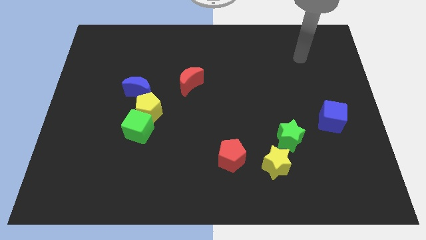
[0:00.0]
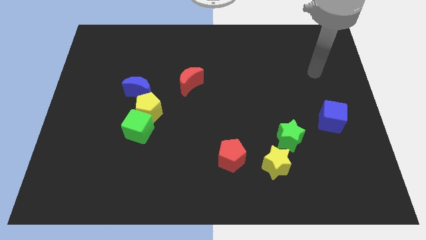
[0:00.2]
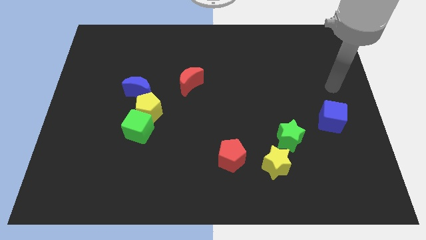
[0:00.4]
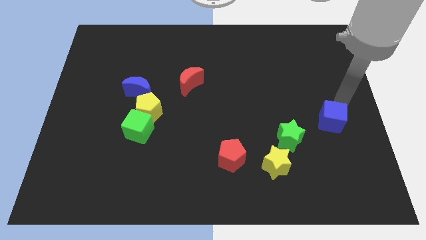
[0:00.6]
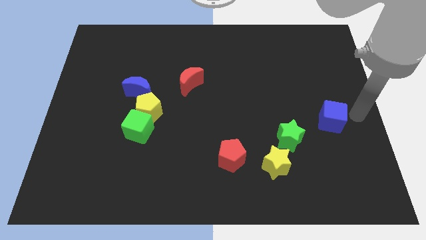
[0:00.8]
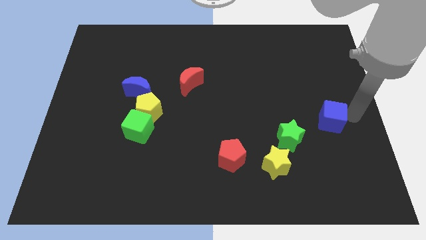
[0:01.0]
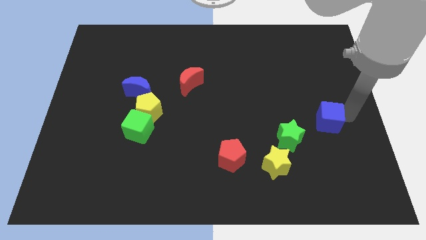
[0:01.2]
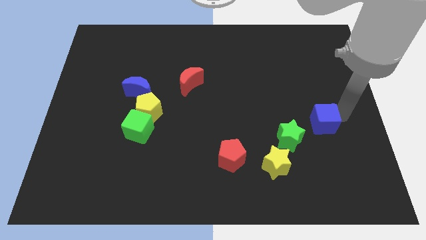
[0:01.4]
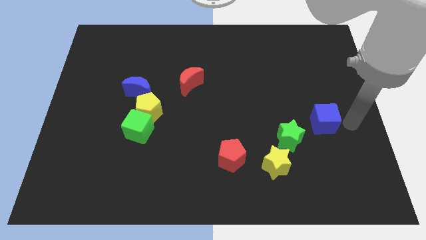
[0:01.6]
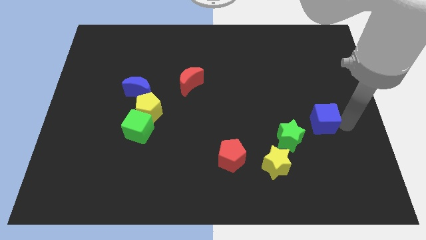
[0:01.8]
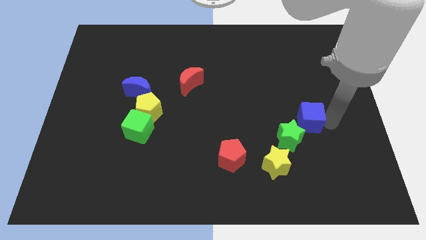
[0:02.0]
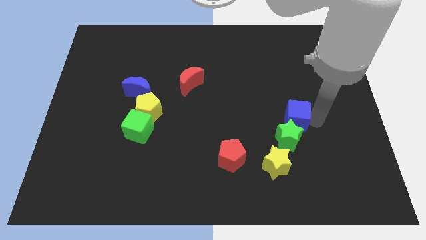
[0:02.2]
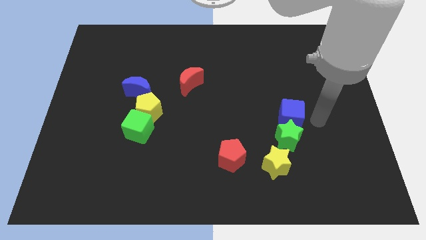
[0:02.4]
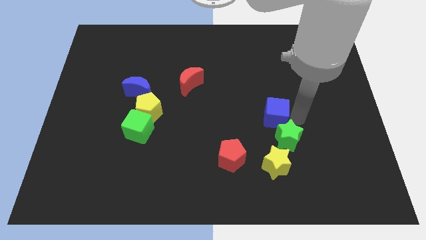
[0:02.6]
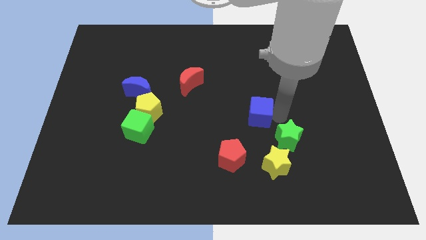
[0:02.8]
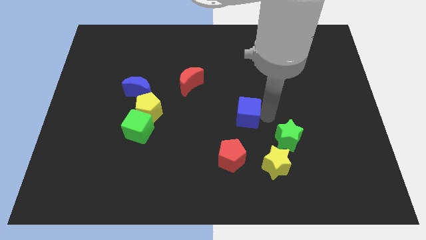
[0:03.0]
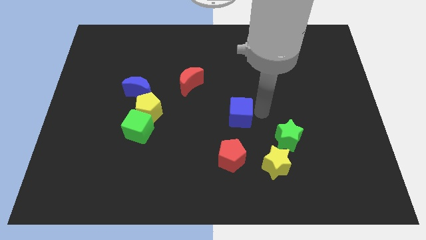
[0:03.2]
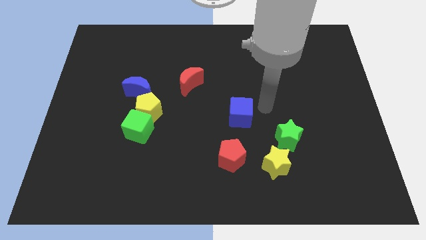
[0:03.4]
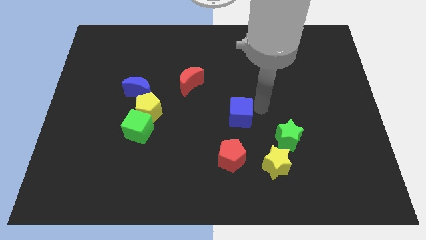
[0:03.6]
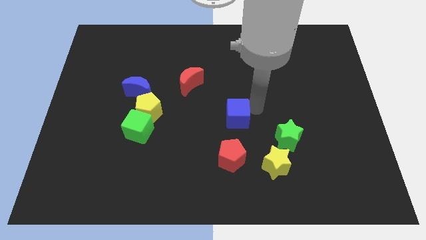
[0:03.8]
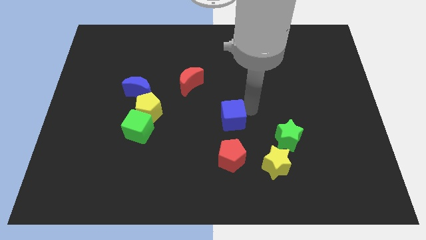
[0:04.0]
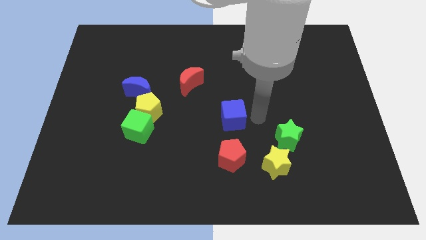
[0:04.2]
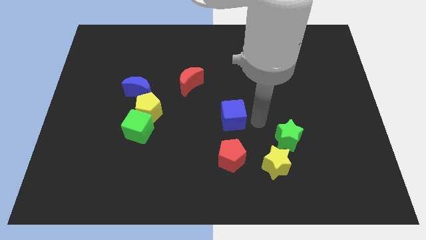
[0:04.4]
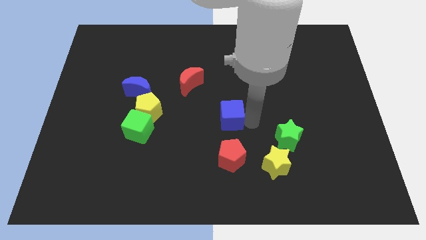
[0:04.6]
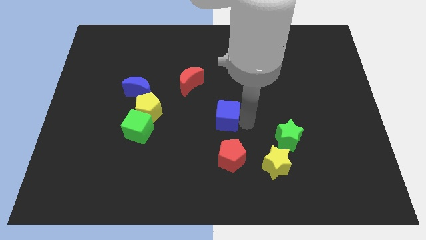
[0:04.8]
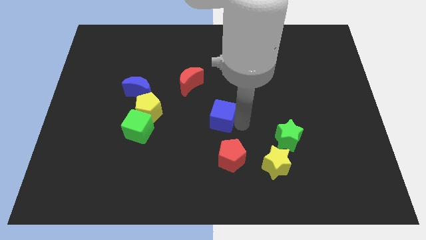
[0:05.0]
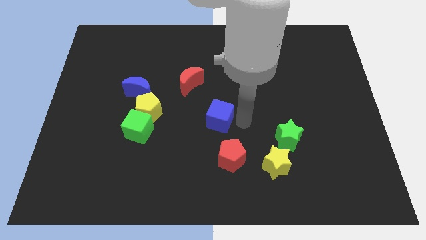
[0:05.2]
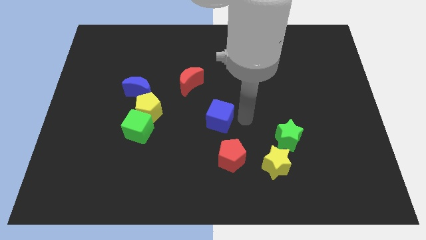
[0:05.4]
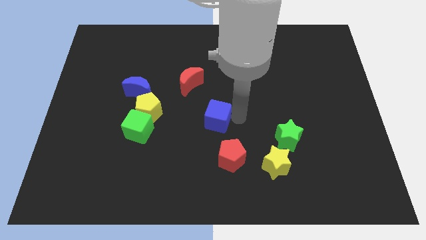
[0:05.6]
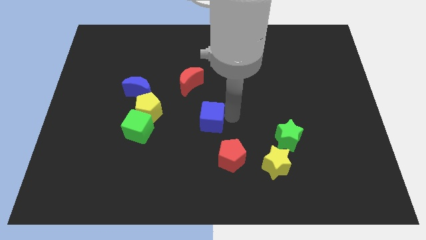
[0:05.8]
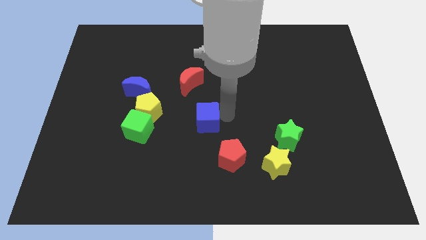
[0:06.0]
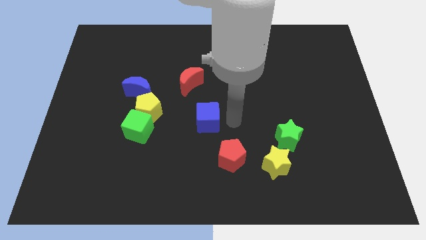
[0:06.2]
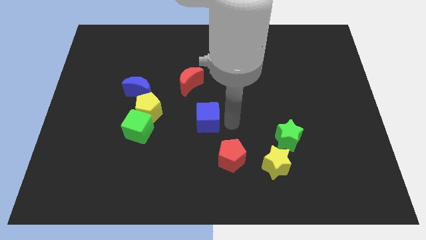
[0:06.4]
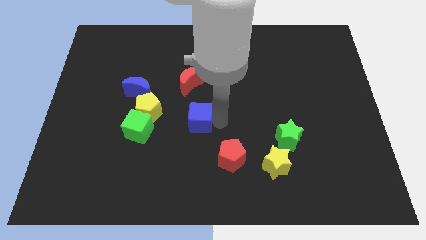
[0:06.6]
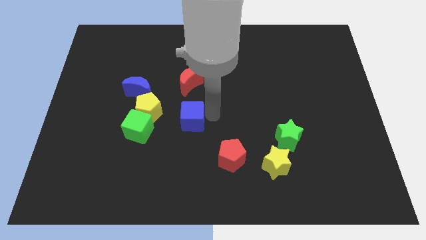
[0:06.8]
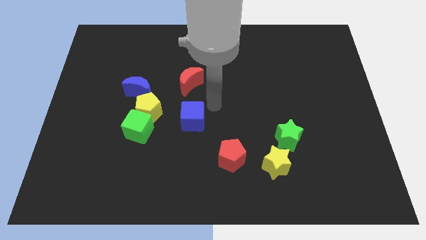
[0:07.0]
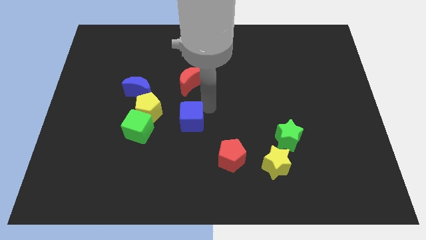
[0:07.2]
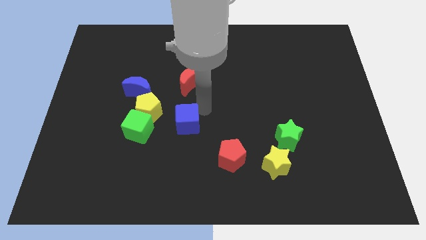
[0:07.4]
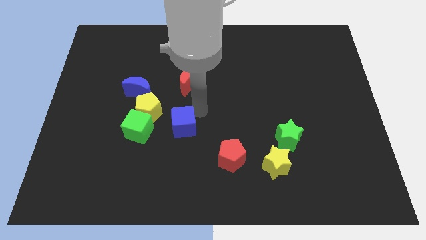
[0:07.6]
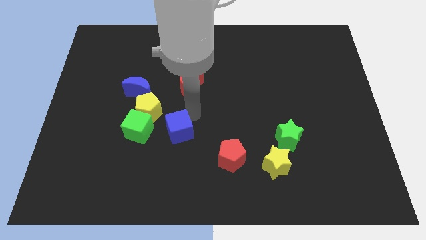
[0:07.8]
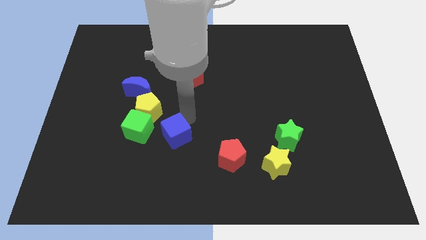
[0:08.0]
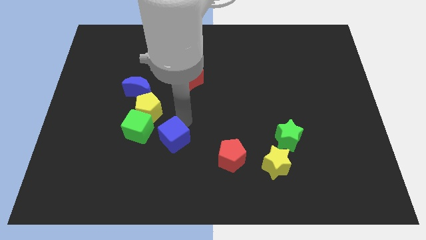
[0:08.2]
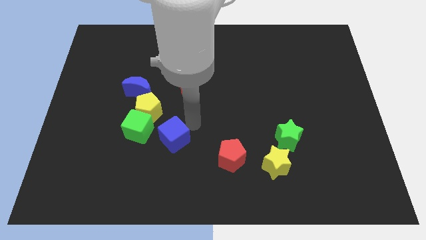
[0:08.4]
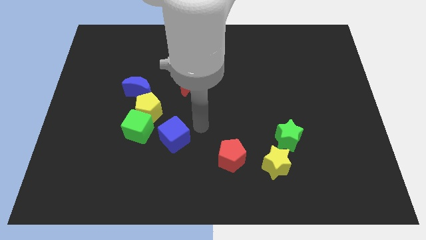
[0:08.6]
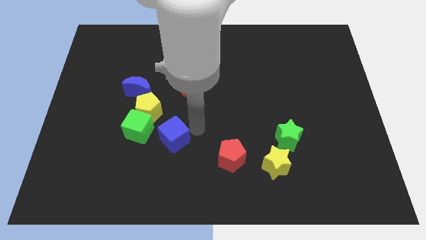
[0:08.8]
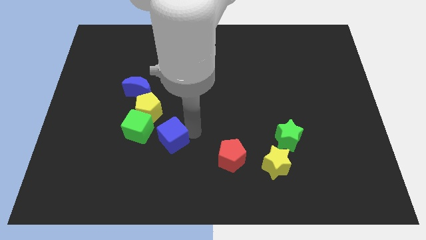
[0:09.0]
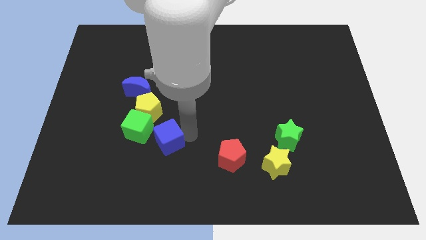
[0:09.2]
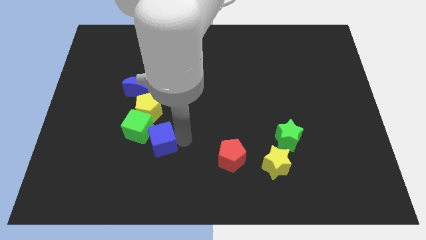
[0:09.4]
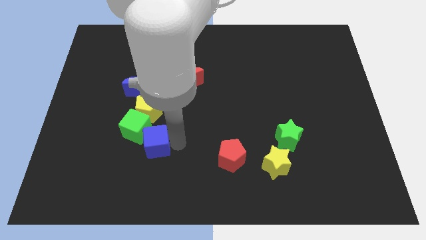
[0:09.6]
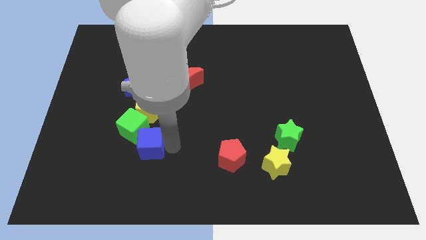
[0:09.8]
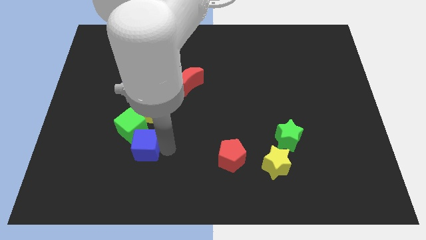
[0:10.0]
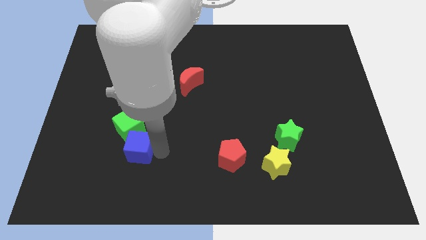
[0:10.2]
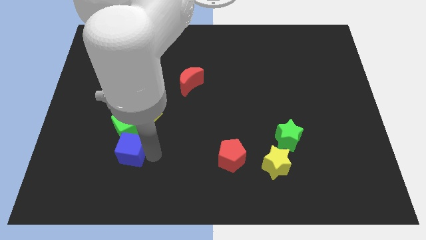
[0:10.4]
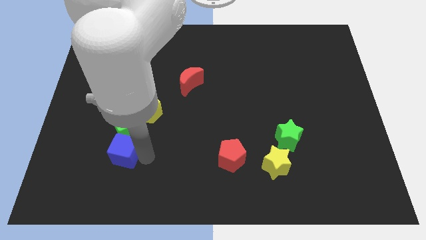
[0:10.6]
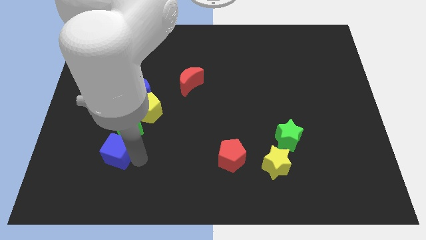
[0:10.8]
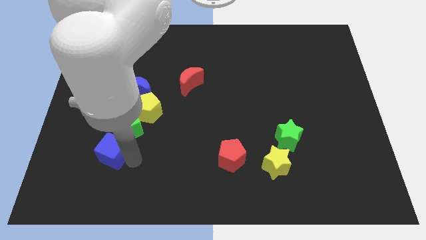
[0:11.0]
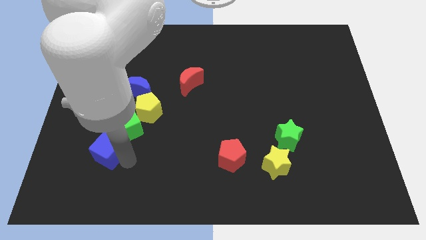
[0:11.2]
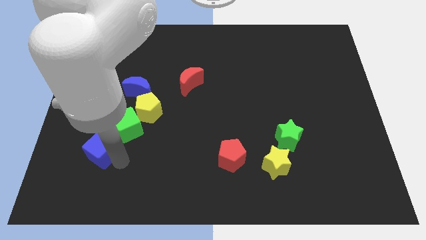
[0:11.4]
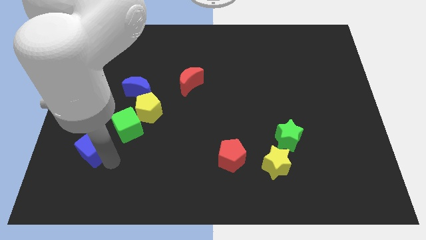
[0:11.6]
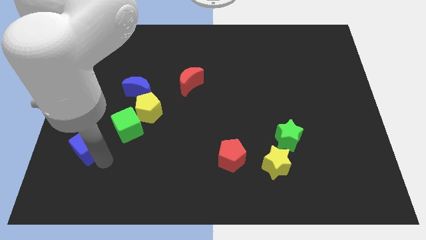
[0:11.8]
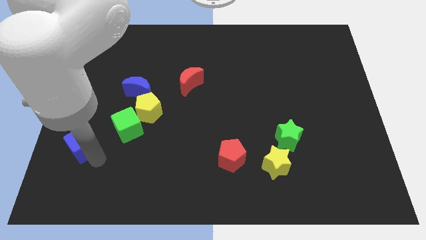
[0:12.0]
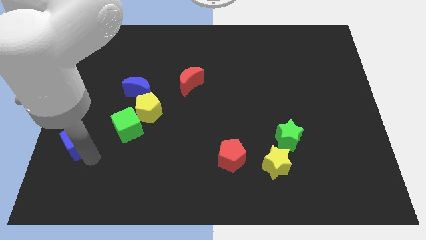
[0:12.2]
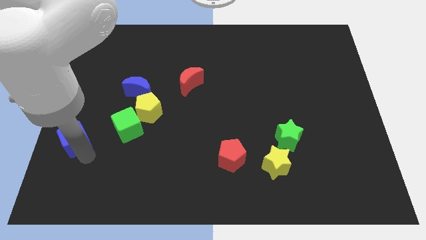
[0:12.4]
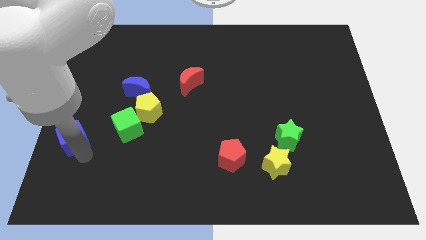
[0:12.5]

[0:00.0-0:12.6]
push the blue cube to the left side
